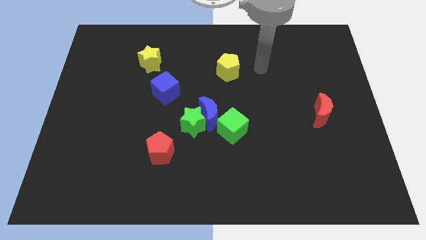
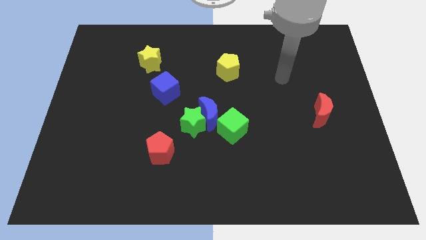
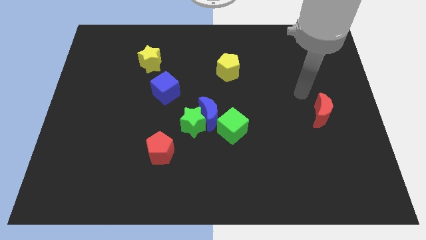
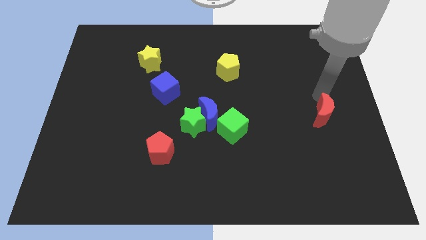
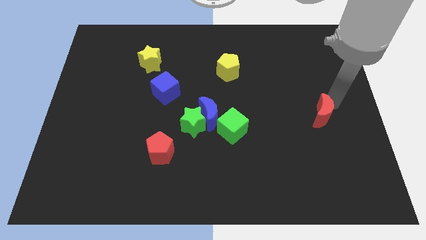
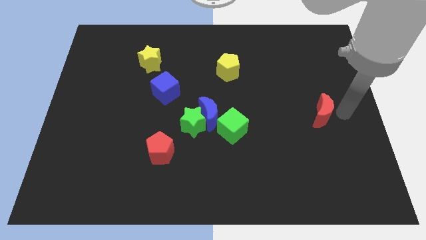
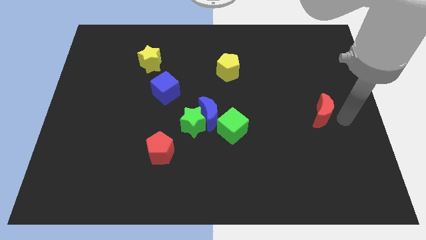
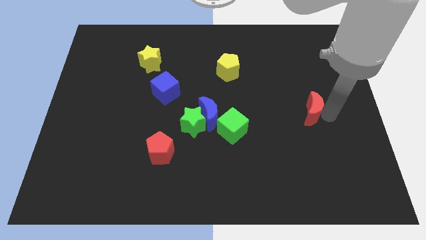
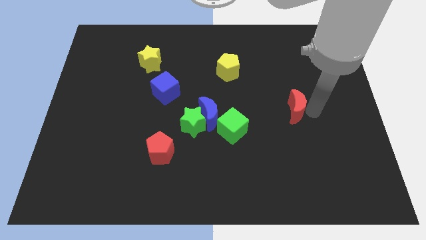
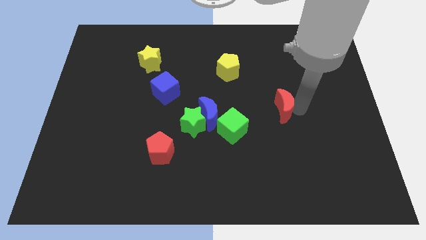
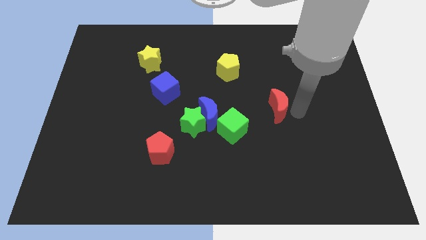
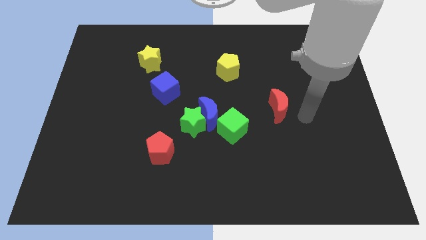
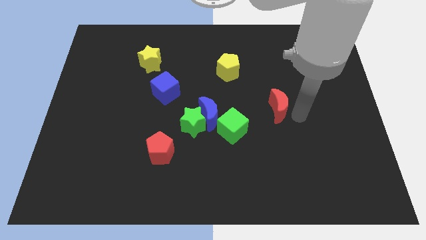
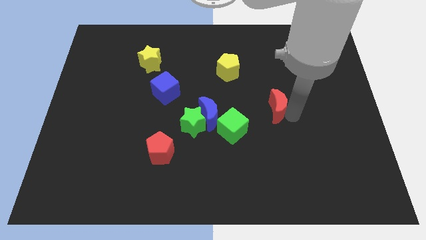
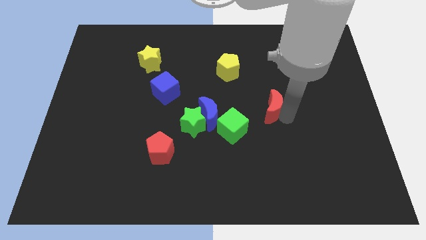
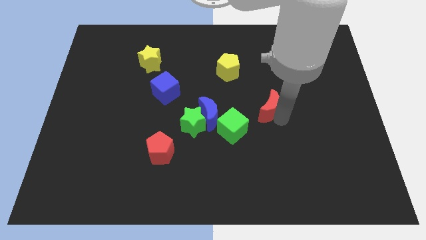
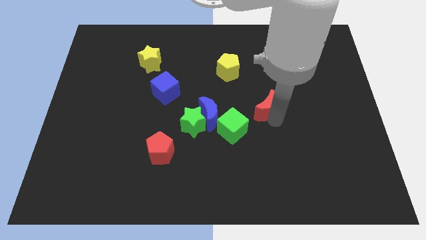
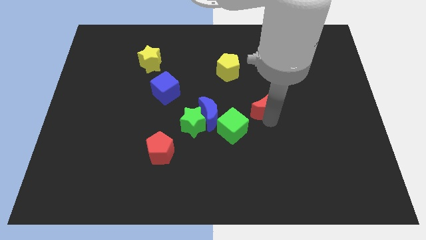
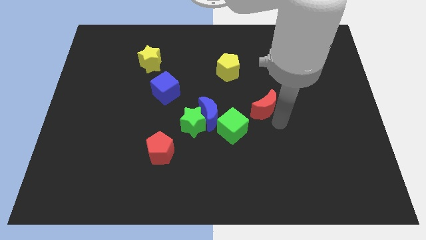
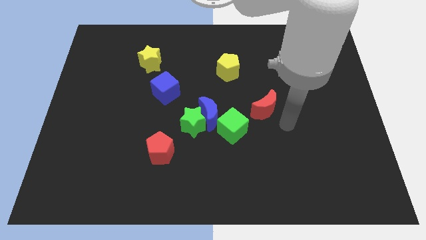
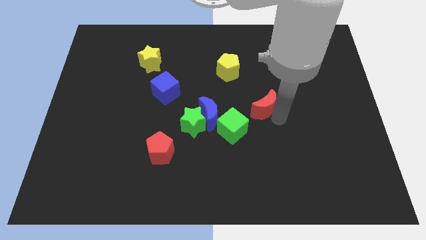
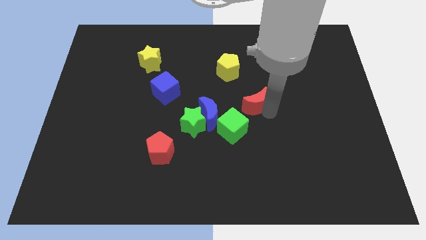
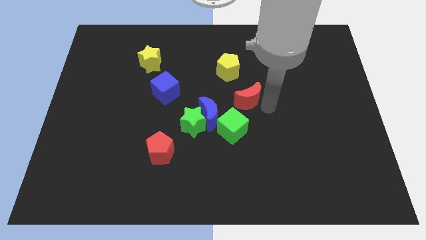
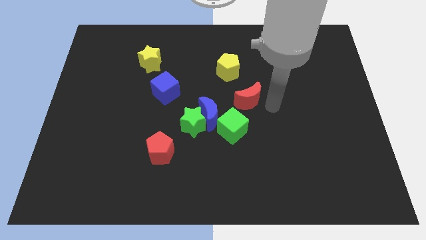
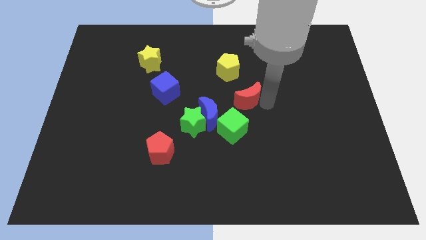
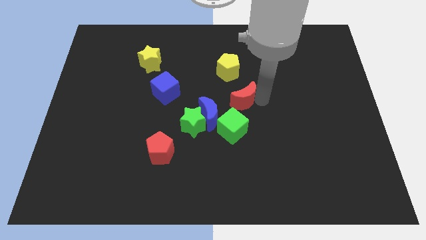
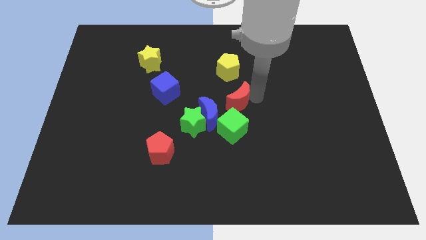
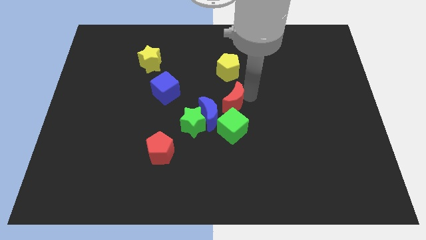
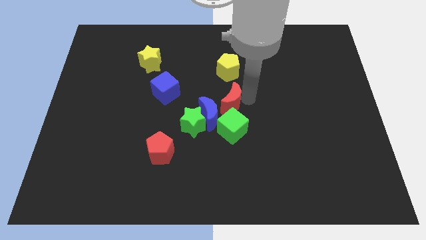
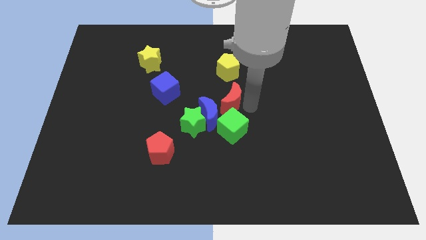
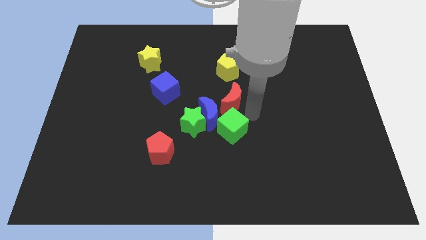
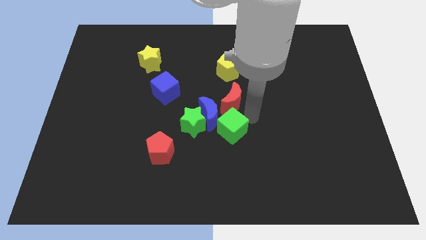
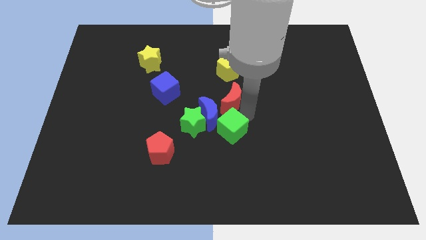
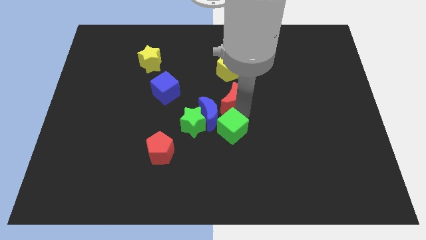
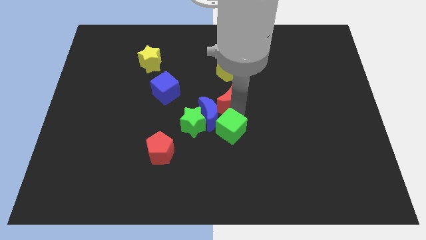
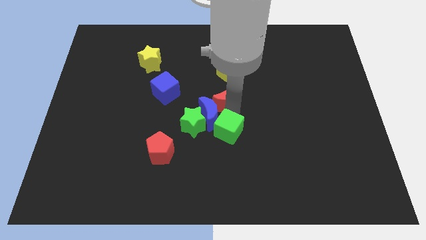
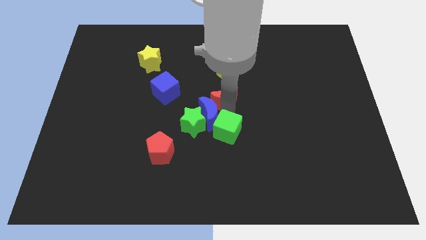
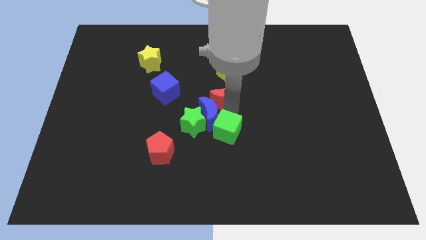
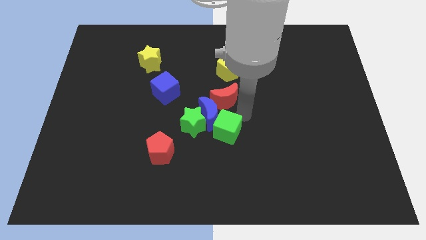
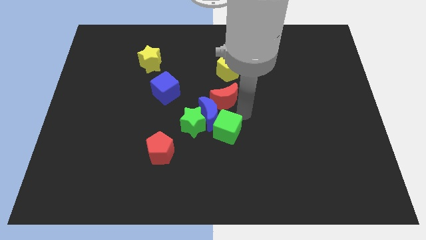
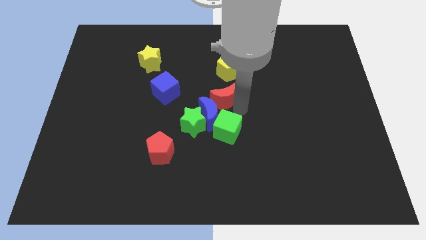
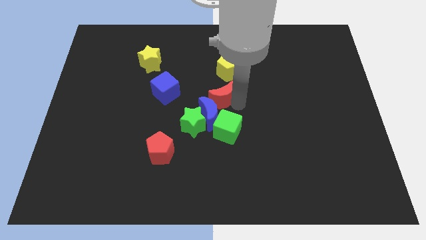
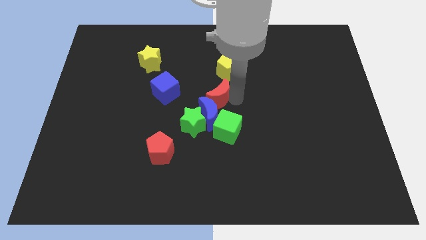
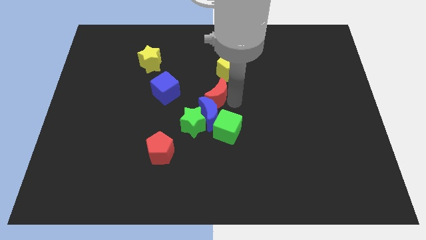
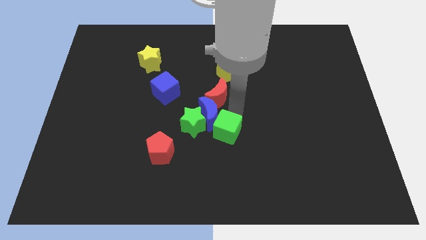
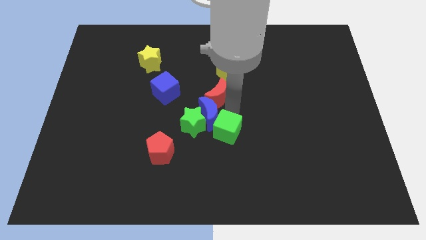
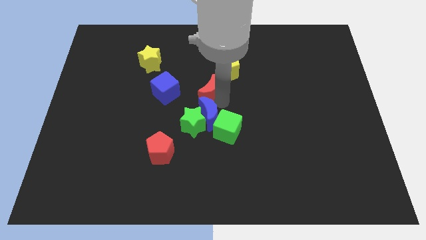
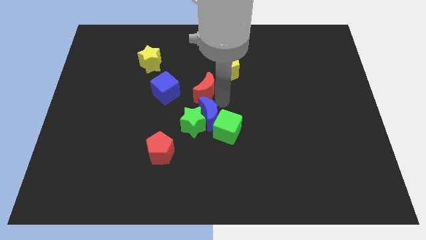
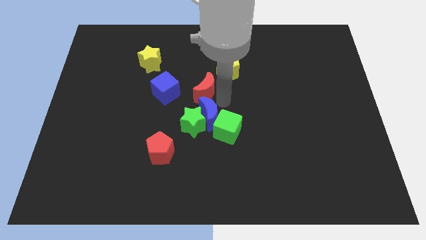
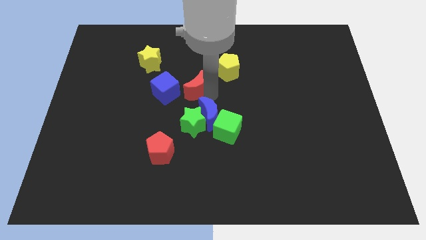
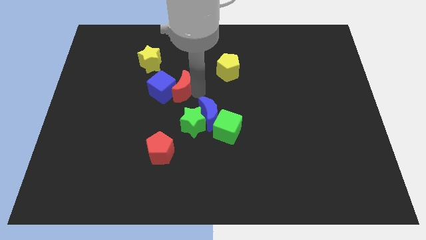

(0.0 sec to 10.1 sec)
push the red moon to the bottom right side of the yellow star

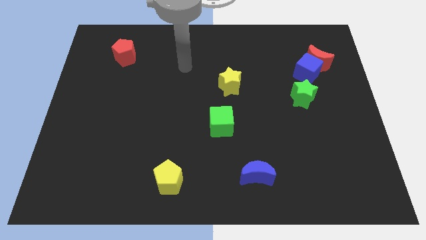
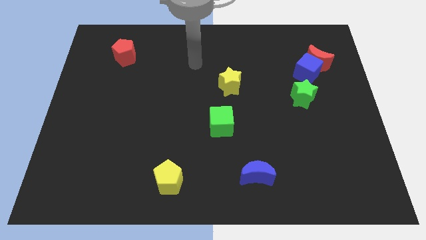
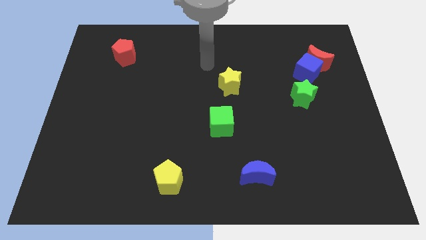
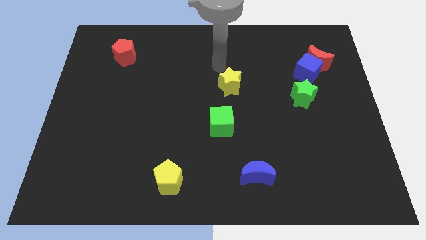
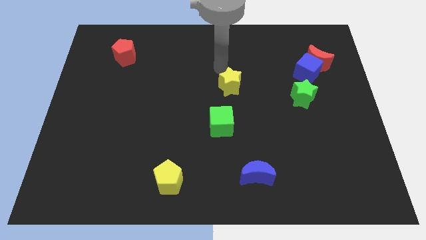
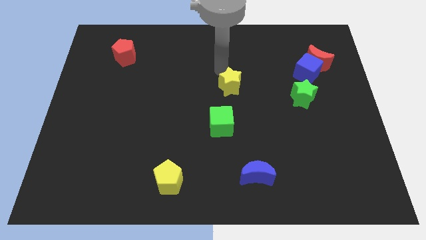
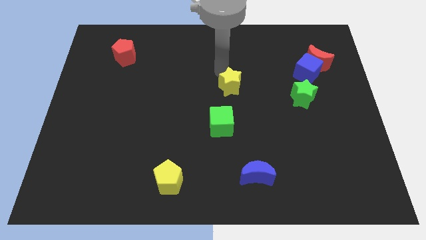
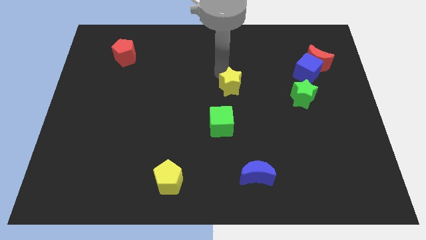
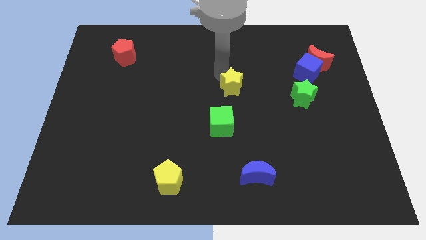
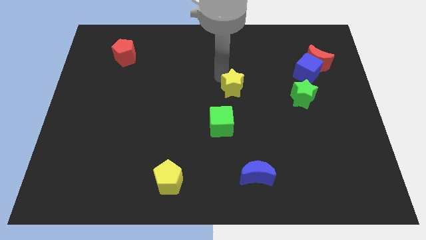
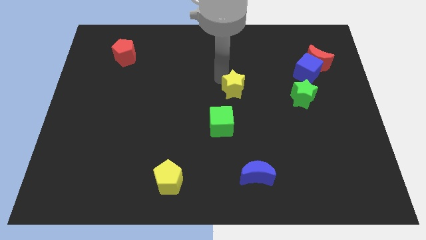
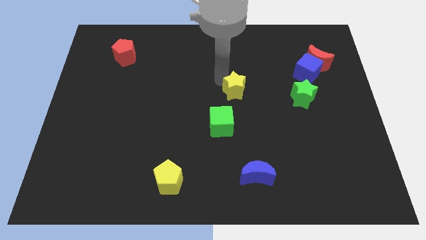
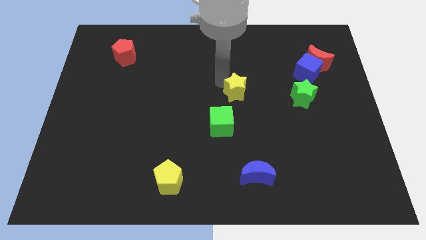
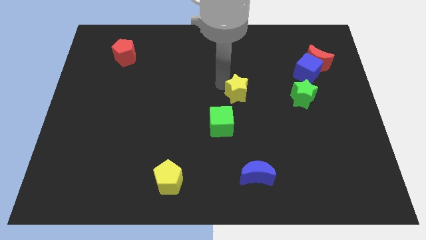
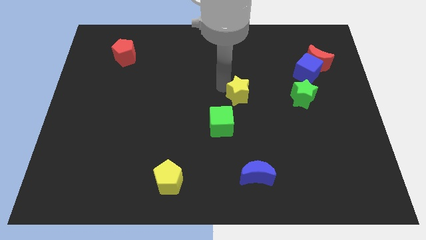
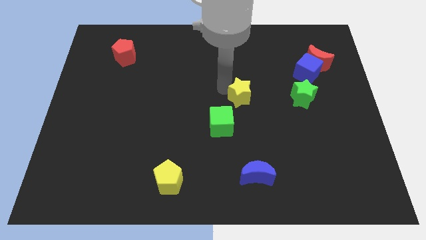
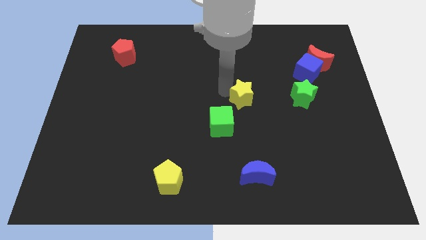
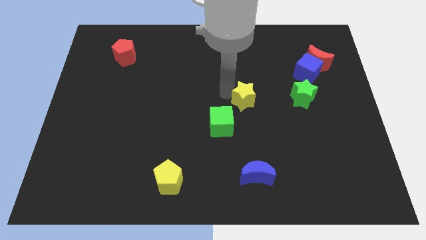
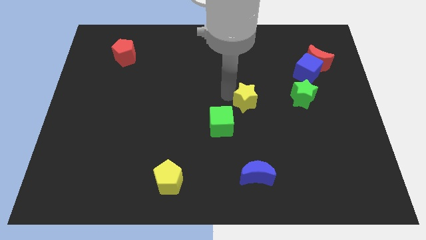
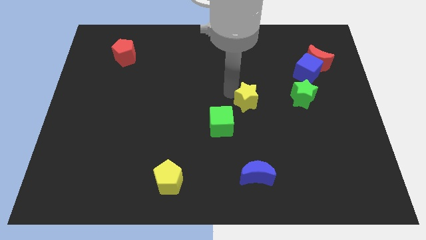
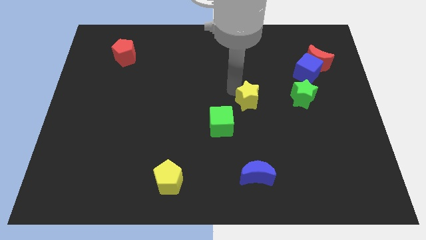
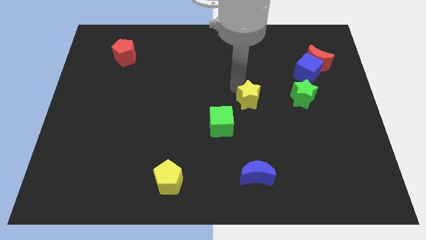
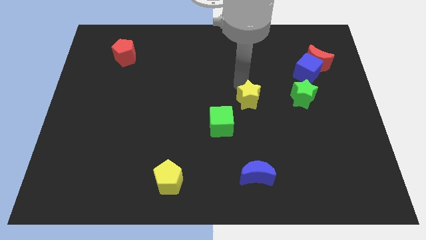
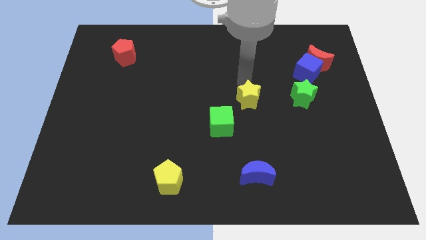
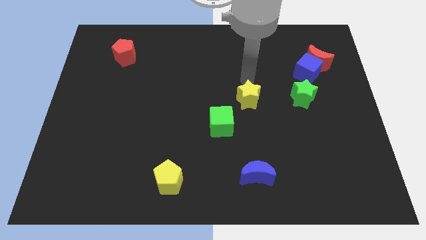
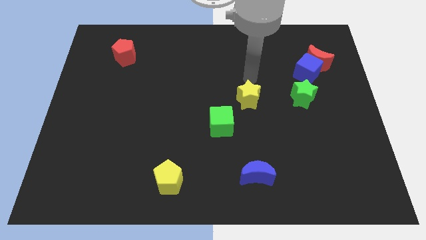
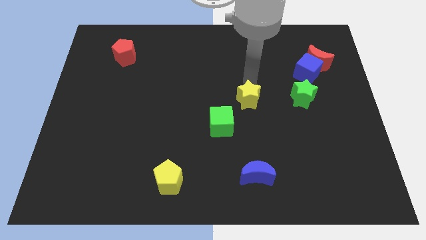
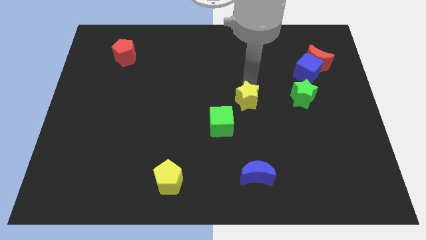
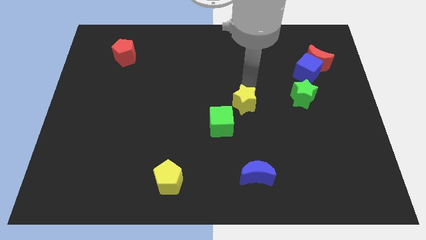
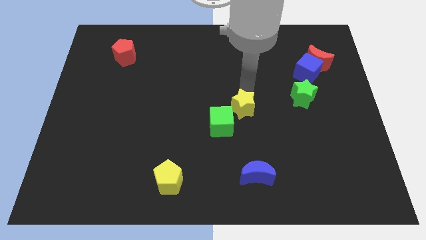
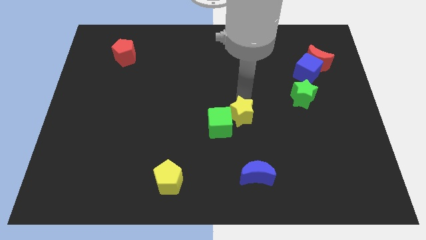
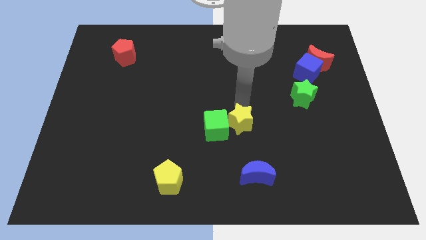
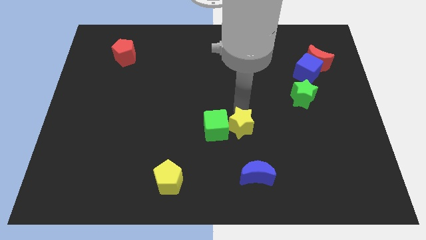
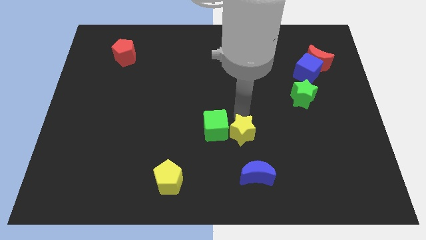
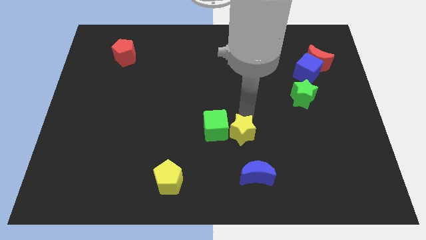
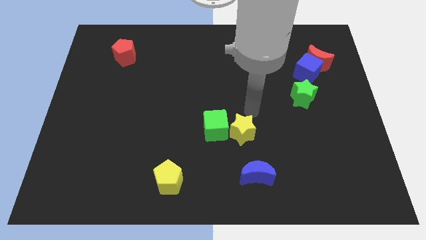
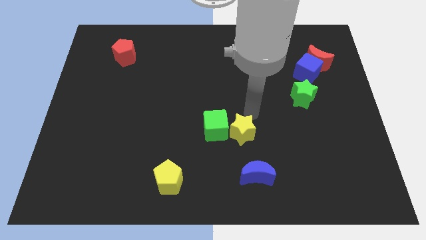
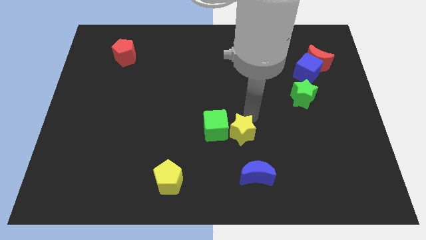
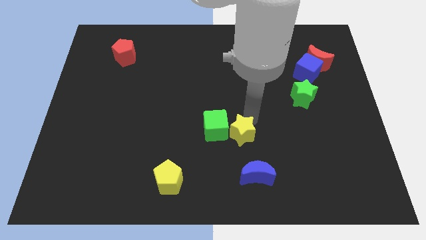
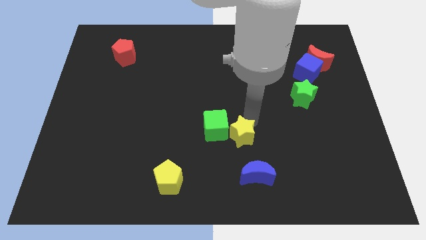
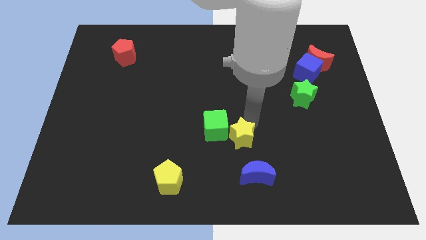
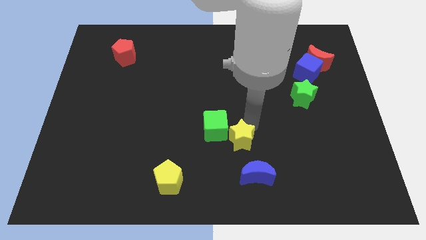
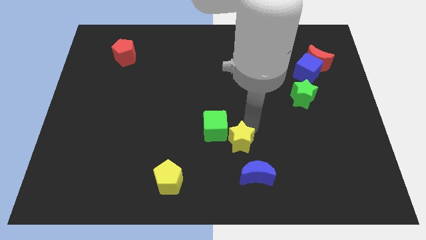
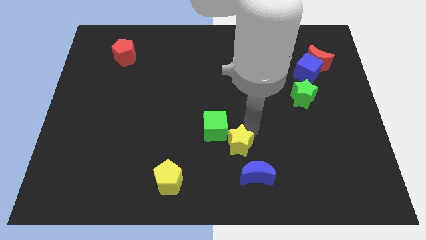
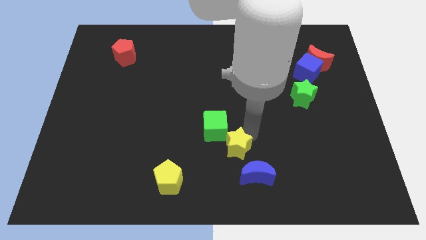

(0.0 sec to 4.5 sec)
slide the yellow star to the bottom of the green cube
